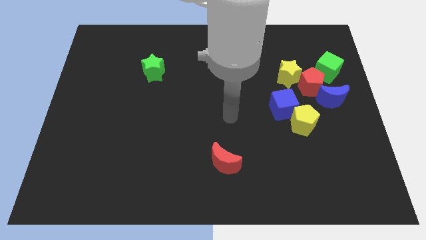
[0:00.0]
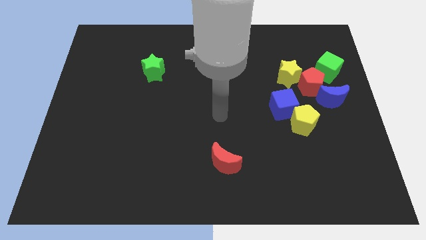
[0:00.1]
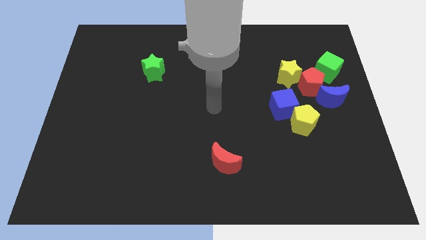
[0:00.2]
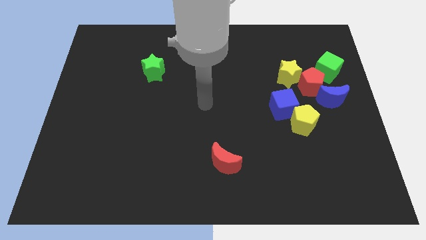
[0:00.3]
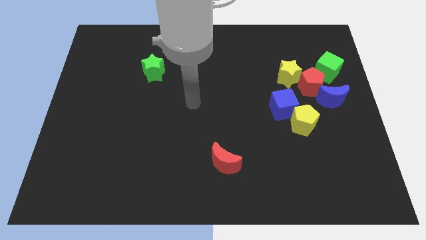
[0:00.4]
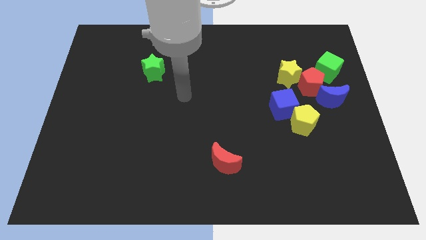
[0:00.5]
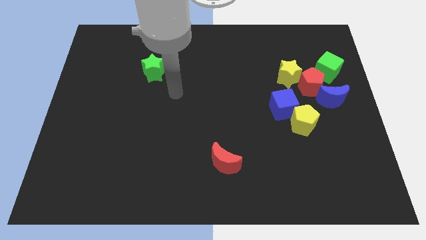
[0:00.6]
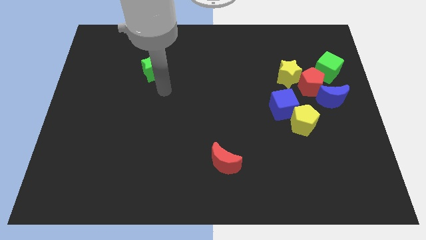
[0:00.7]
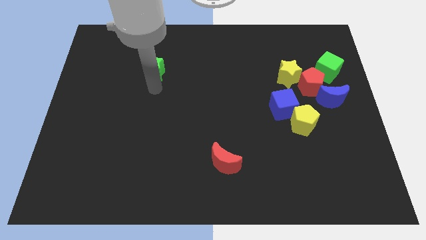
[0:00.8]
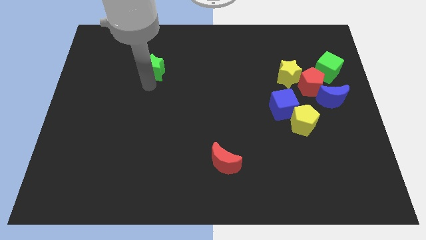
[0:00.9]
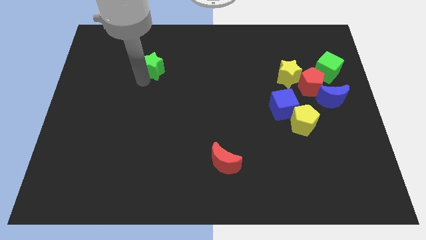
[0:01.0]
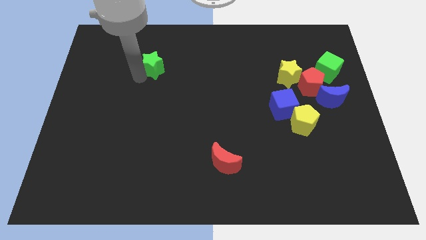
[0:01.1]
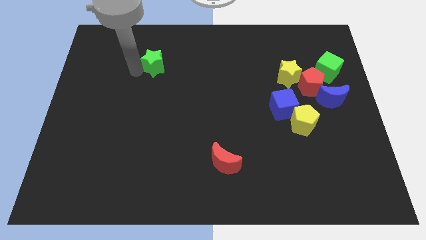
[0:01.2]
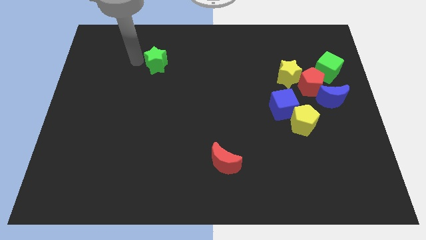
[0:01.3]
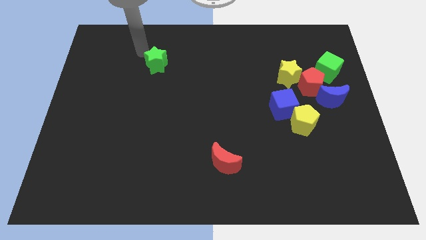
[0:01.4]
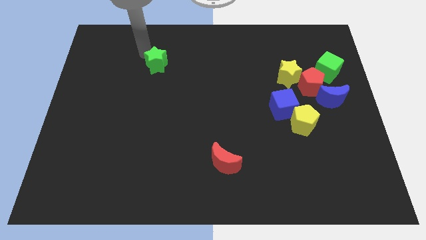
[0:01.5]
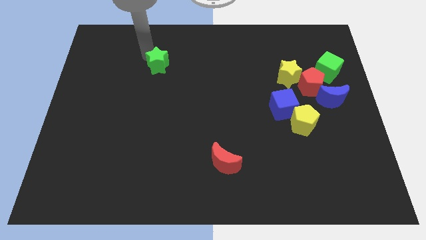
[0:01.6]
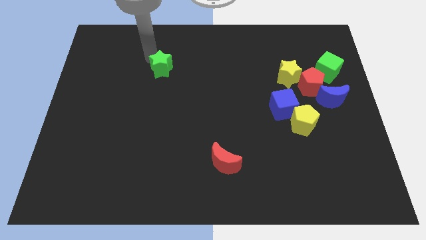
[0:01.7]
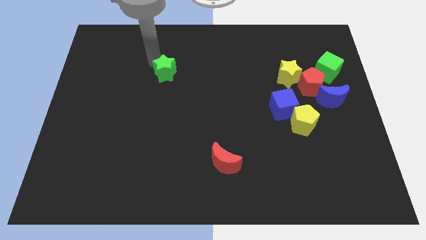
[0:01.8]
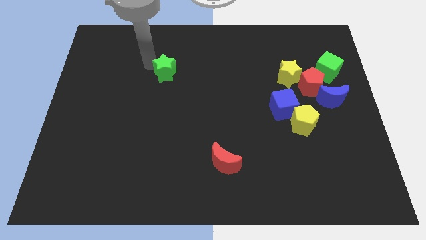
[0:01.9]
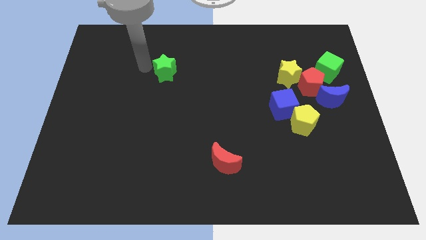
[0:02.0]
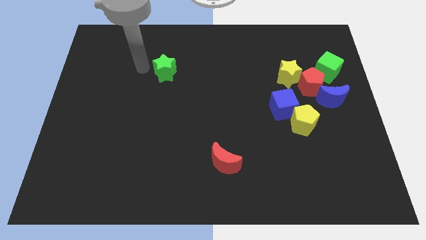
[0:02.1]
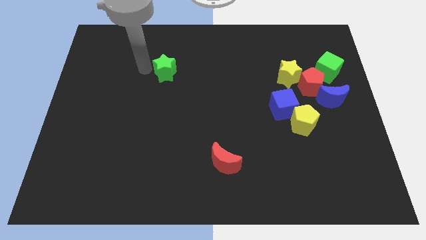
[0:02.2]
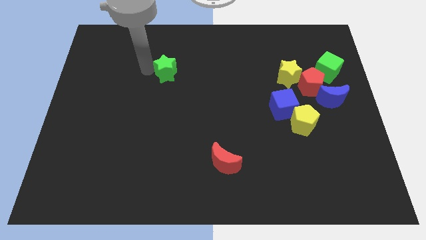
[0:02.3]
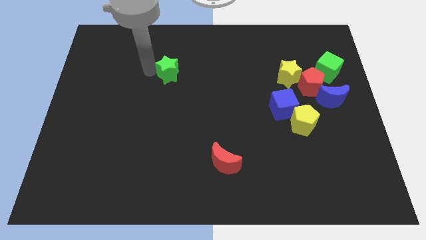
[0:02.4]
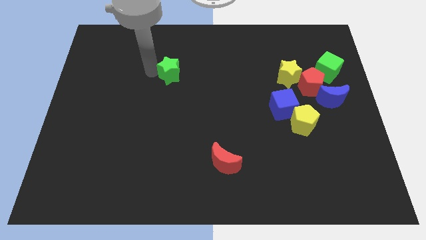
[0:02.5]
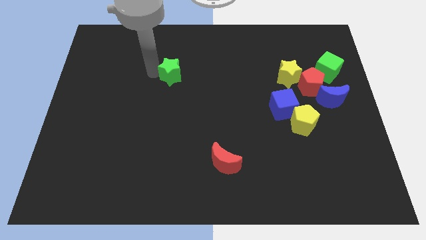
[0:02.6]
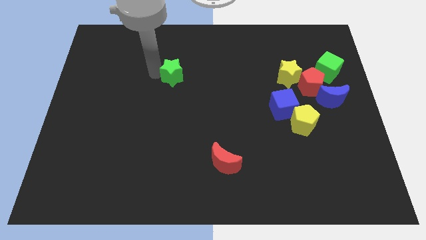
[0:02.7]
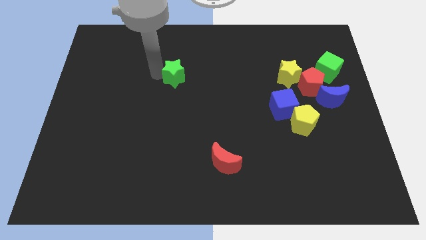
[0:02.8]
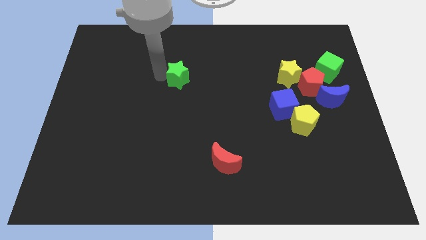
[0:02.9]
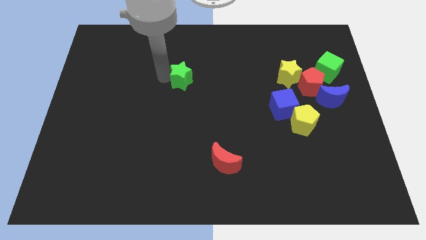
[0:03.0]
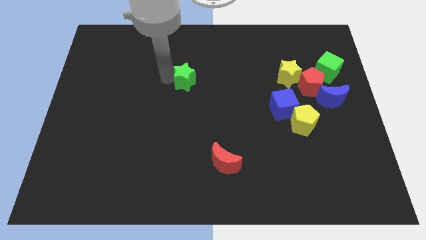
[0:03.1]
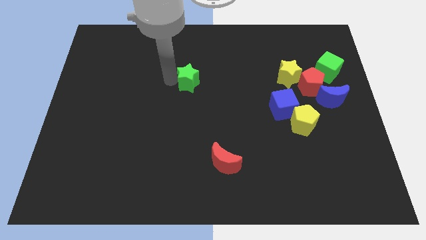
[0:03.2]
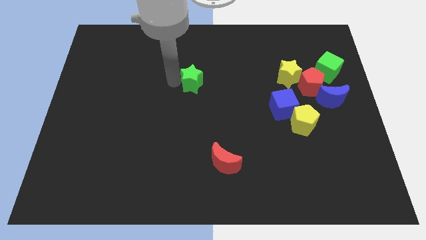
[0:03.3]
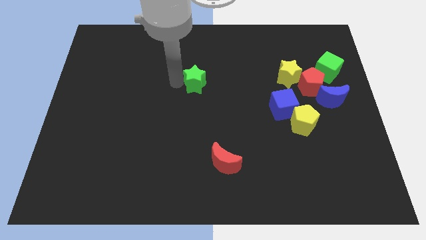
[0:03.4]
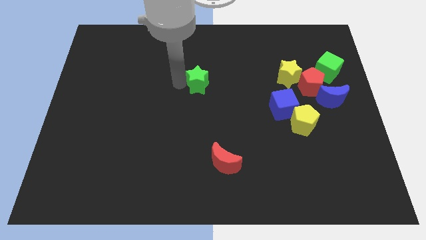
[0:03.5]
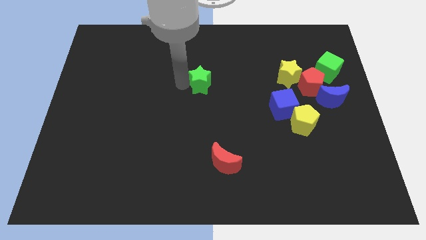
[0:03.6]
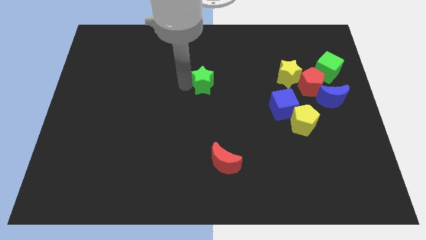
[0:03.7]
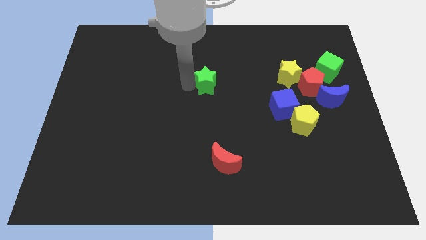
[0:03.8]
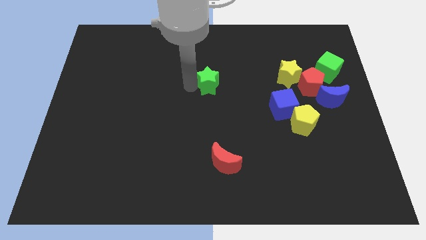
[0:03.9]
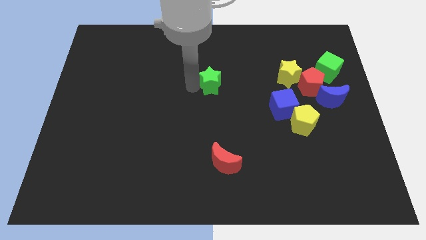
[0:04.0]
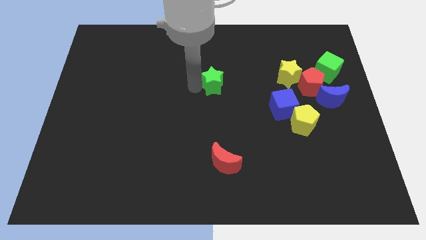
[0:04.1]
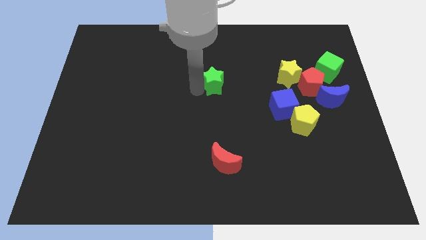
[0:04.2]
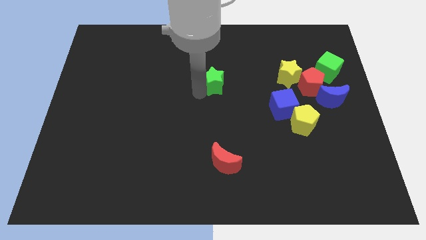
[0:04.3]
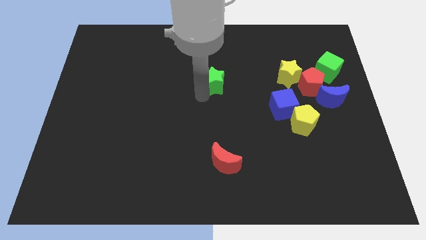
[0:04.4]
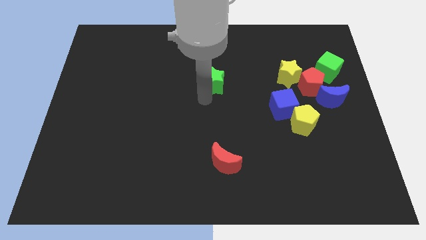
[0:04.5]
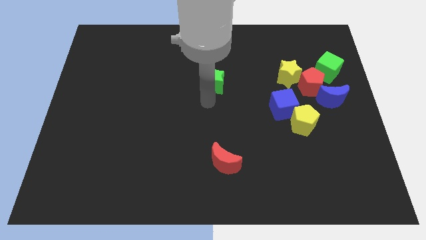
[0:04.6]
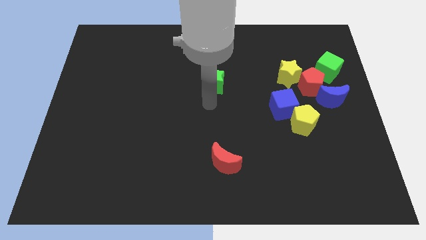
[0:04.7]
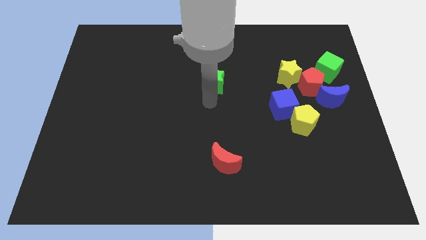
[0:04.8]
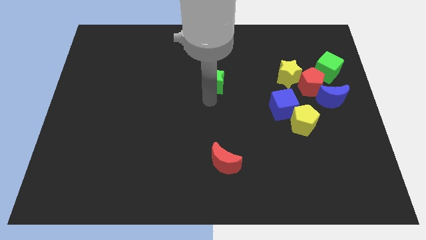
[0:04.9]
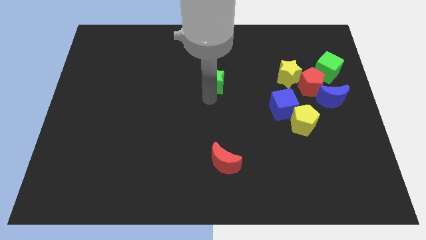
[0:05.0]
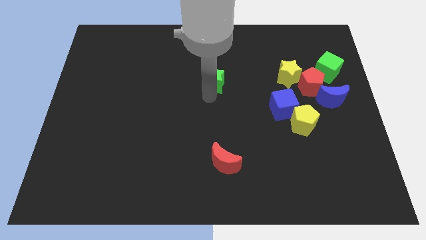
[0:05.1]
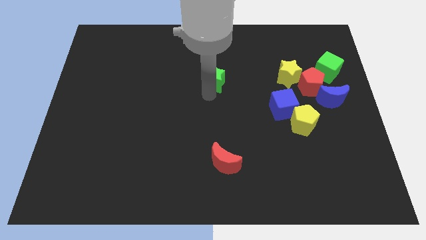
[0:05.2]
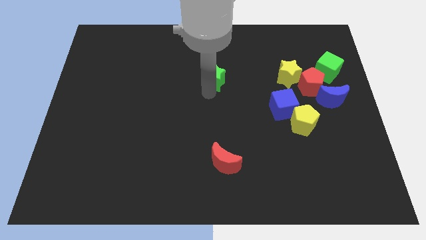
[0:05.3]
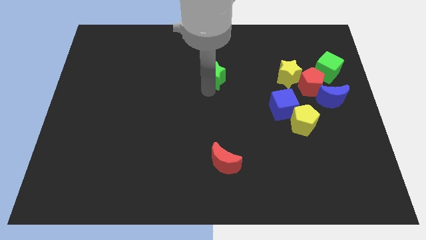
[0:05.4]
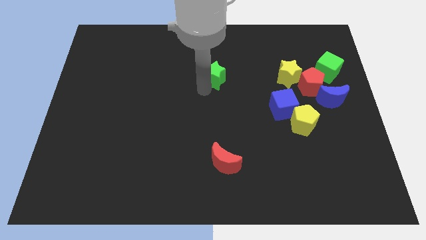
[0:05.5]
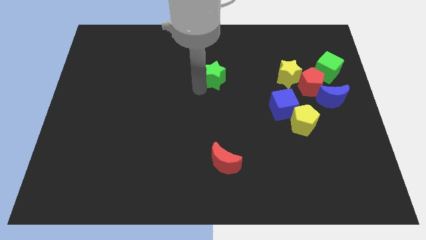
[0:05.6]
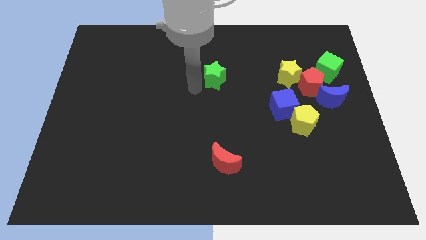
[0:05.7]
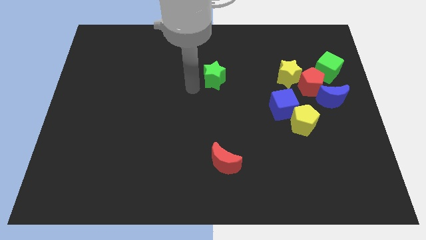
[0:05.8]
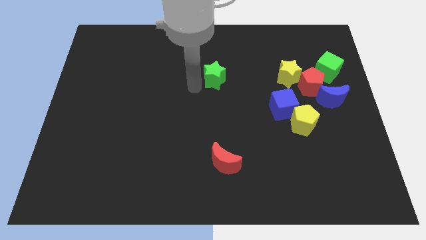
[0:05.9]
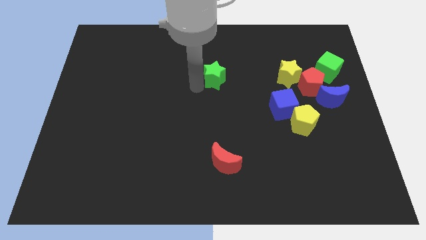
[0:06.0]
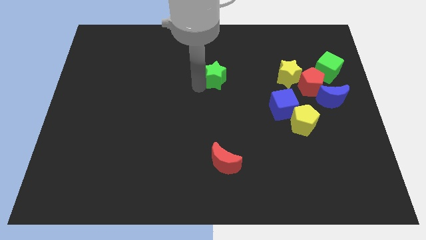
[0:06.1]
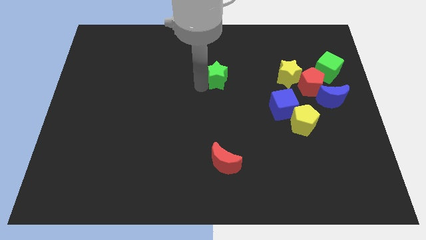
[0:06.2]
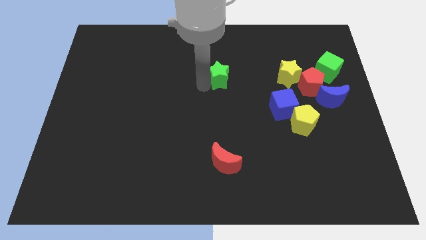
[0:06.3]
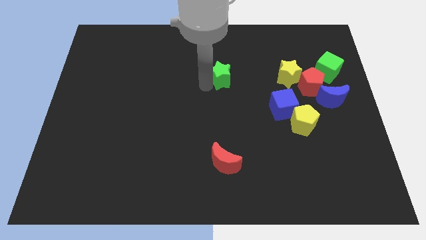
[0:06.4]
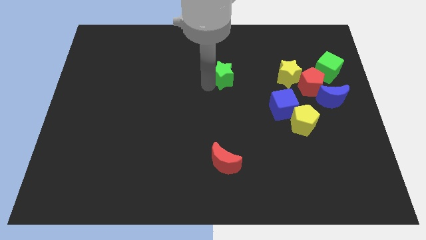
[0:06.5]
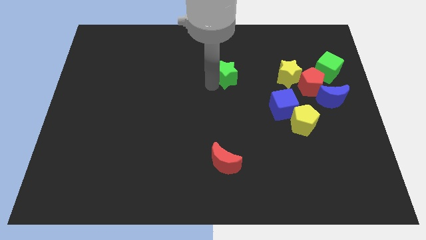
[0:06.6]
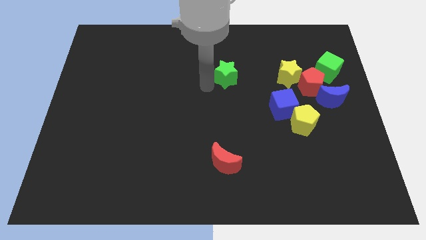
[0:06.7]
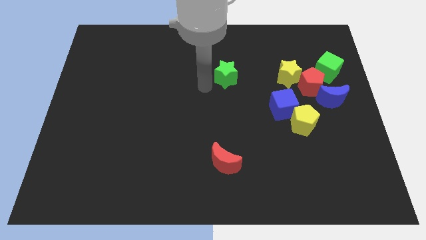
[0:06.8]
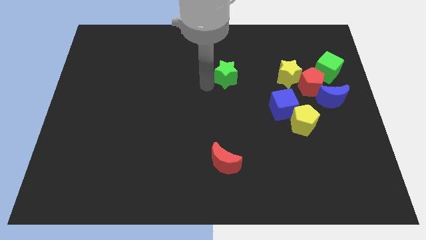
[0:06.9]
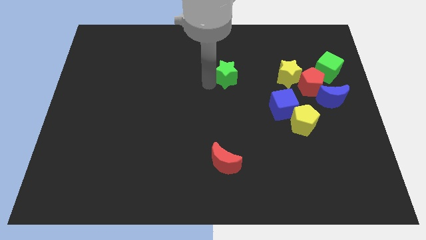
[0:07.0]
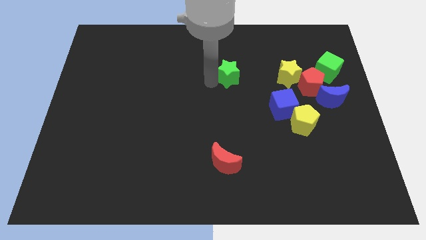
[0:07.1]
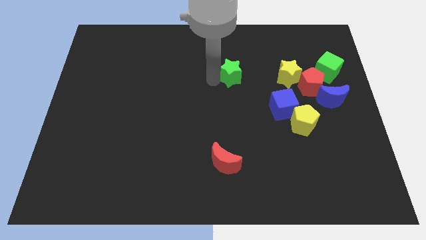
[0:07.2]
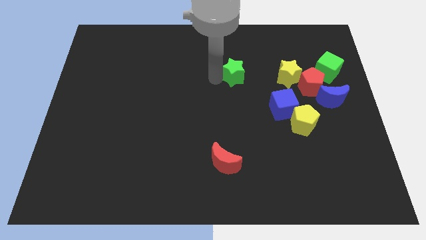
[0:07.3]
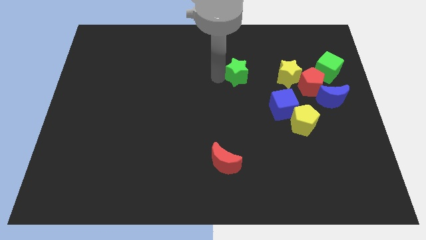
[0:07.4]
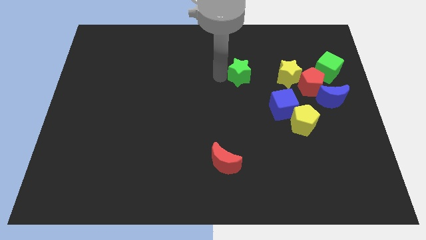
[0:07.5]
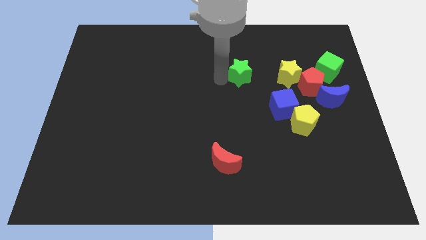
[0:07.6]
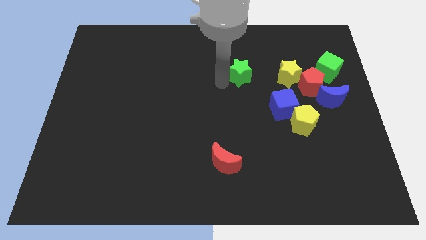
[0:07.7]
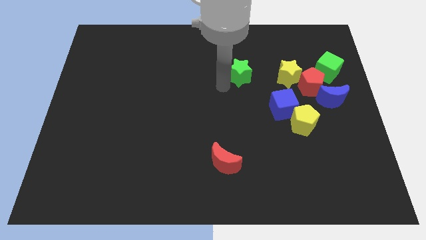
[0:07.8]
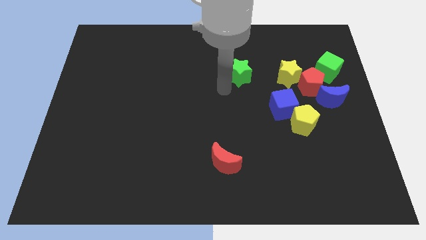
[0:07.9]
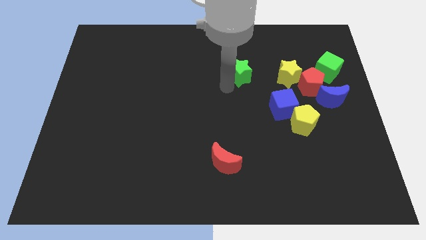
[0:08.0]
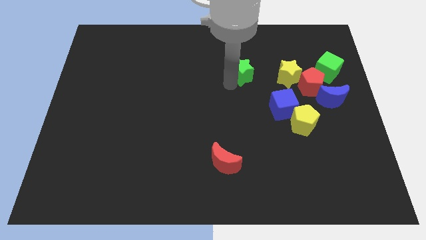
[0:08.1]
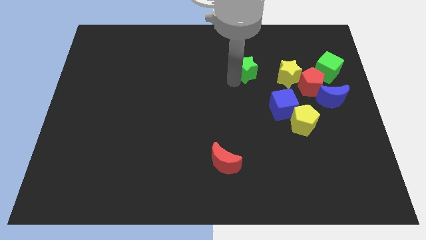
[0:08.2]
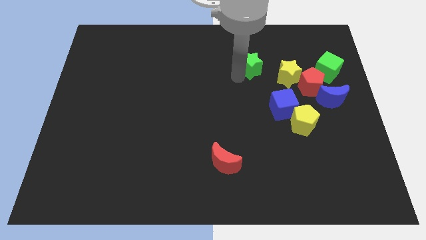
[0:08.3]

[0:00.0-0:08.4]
slide the green star diagonally up and to the left of the yellow star
